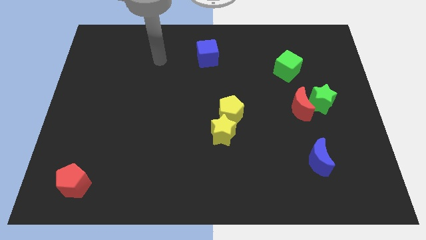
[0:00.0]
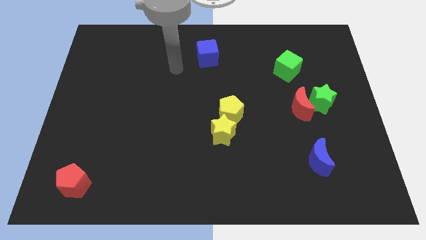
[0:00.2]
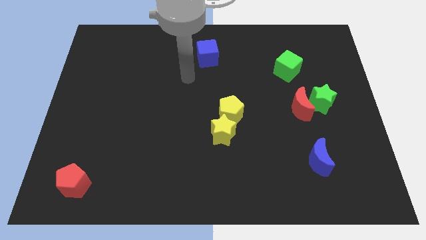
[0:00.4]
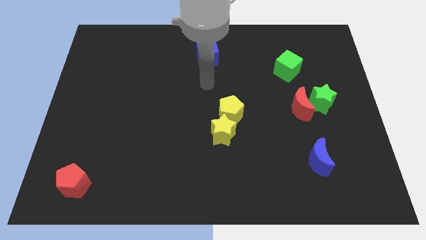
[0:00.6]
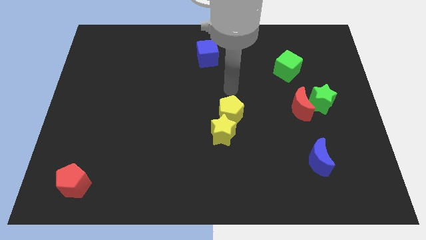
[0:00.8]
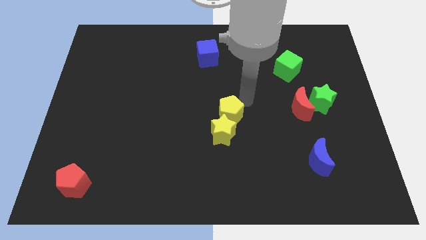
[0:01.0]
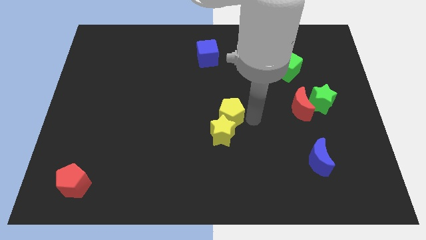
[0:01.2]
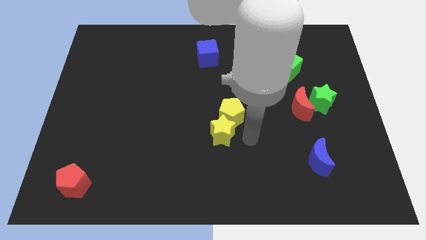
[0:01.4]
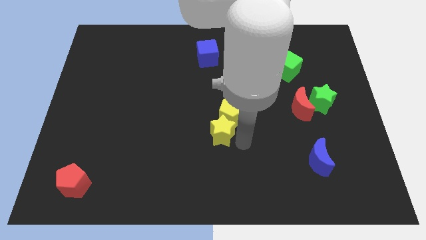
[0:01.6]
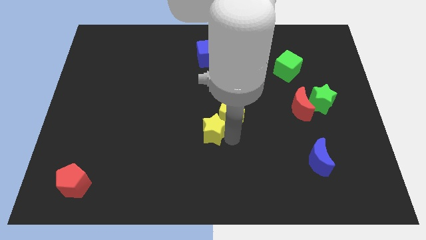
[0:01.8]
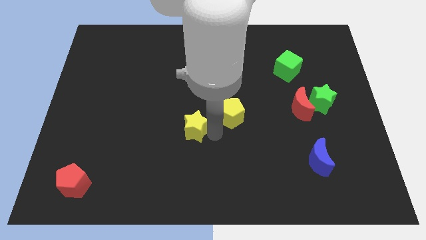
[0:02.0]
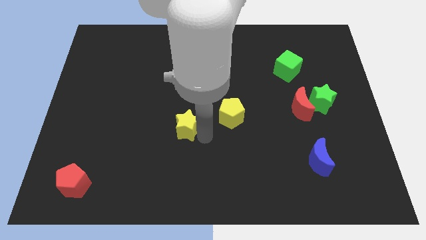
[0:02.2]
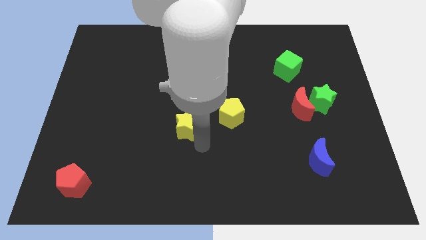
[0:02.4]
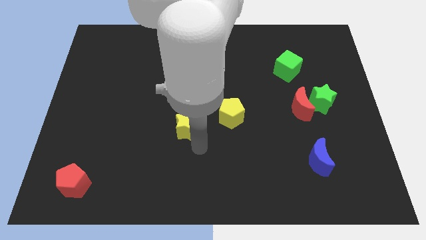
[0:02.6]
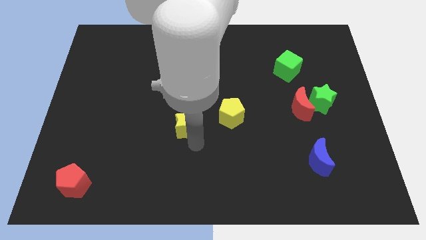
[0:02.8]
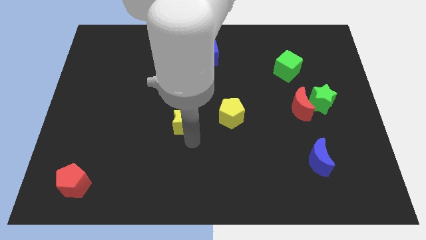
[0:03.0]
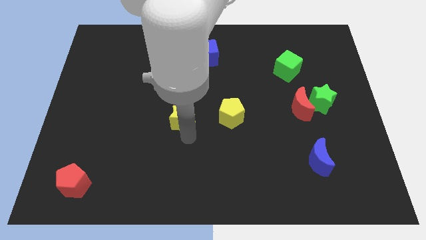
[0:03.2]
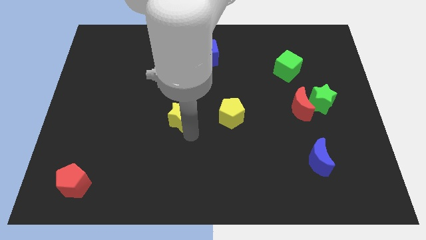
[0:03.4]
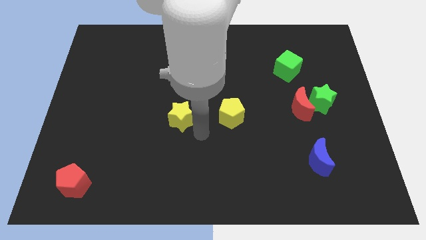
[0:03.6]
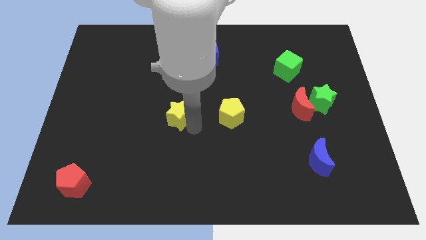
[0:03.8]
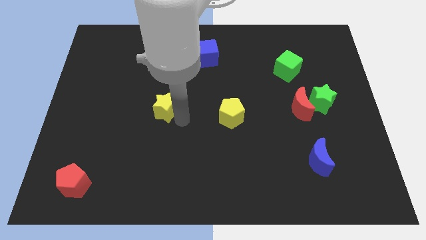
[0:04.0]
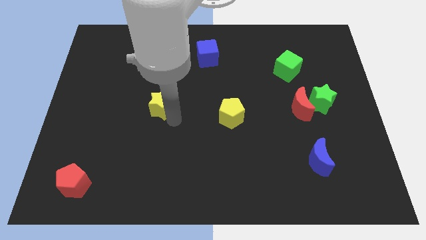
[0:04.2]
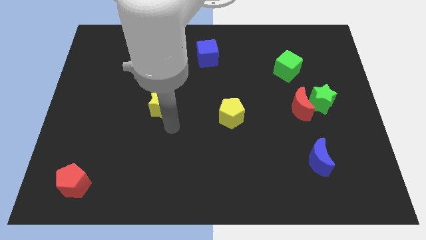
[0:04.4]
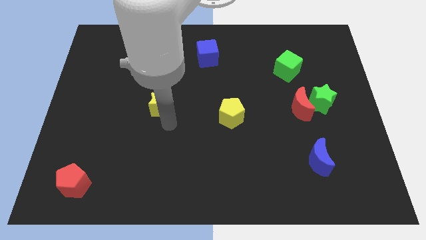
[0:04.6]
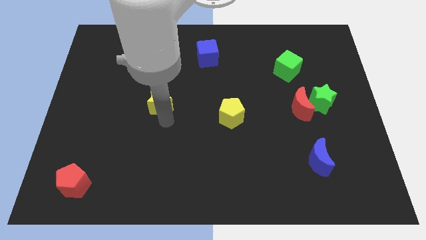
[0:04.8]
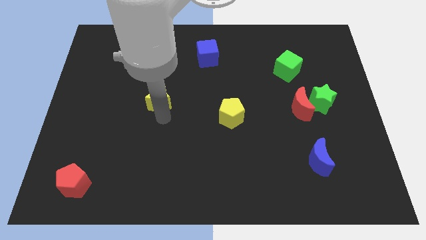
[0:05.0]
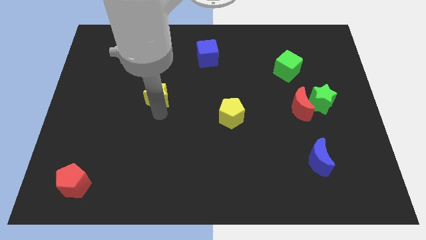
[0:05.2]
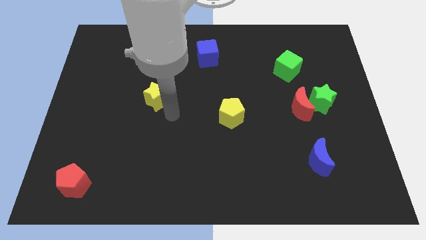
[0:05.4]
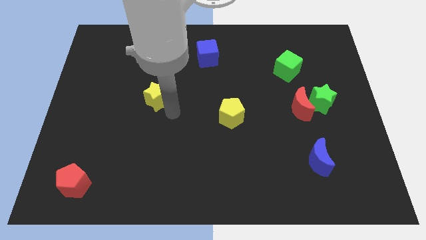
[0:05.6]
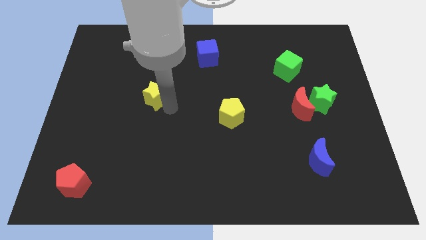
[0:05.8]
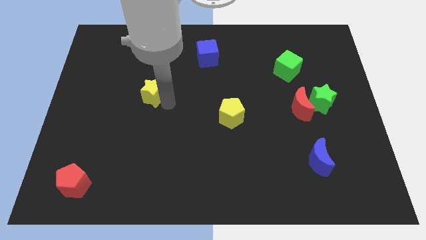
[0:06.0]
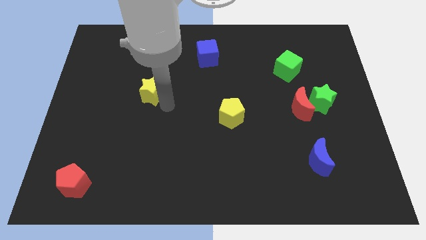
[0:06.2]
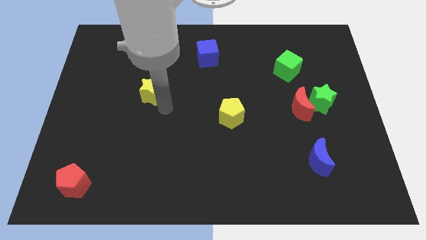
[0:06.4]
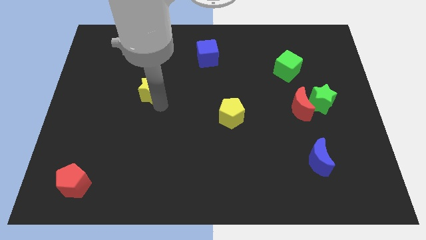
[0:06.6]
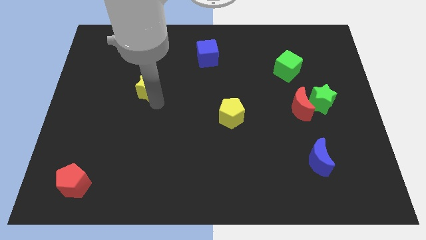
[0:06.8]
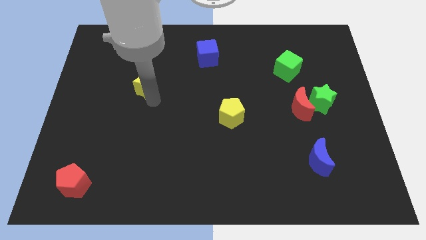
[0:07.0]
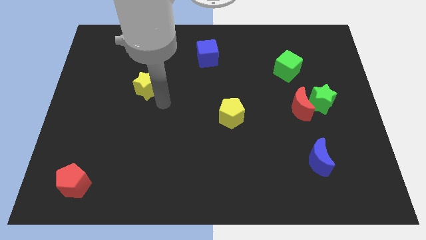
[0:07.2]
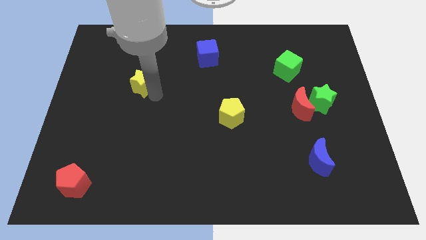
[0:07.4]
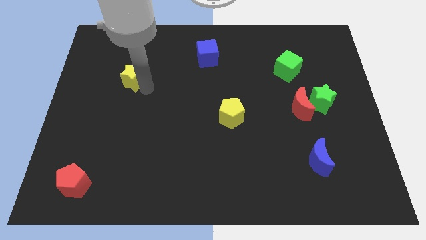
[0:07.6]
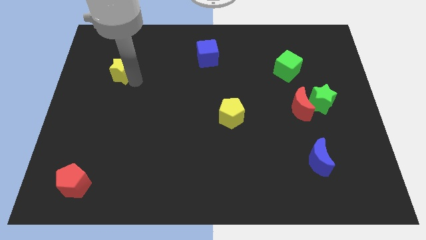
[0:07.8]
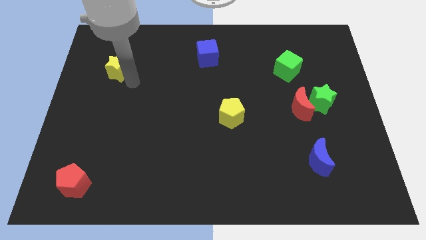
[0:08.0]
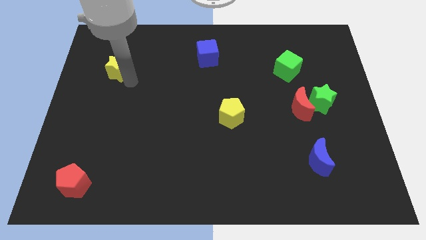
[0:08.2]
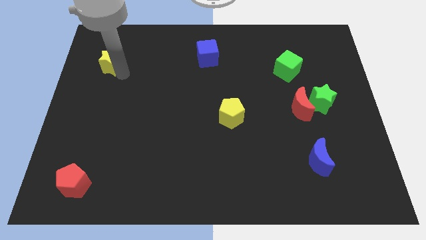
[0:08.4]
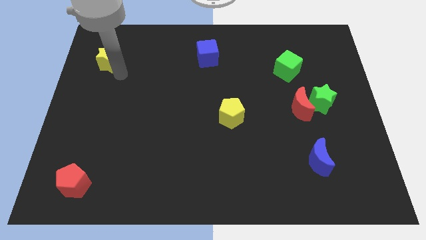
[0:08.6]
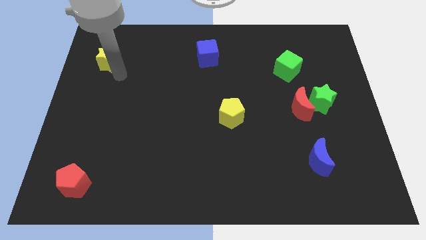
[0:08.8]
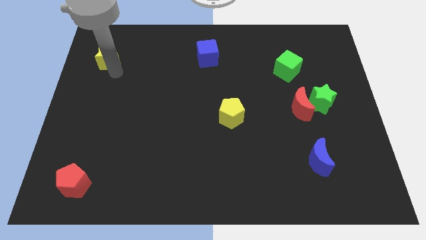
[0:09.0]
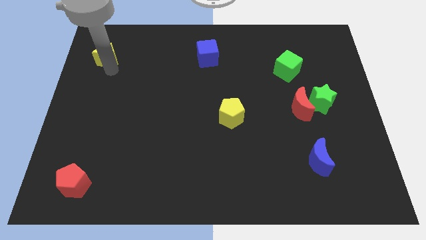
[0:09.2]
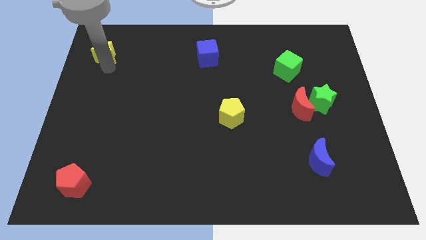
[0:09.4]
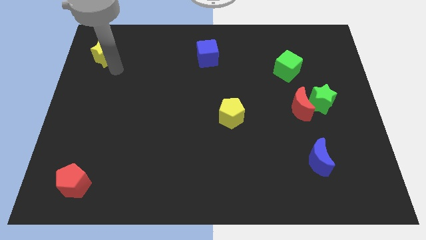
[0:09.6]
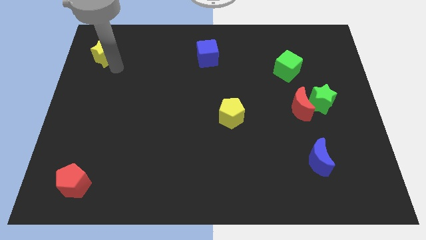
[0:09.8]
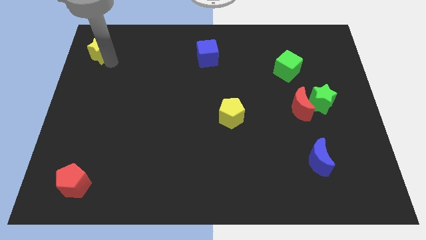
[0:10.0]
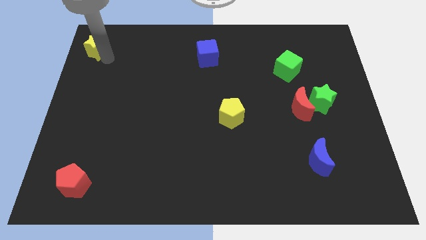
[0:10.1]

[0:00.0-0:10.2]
push the yellow star to the top left corner

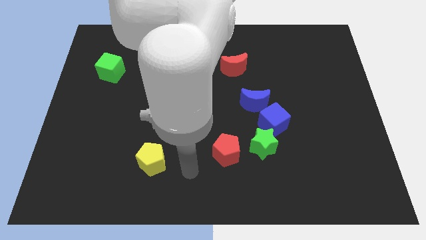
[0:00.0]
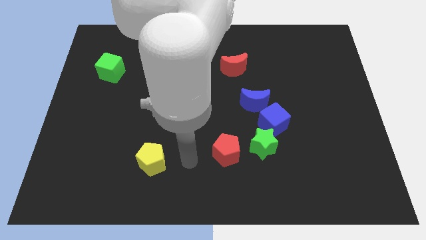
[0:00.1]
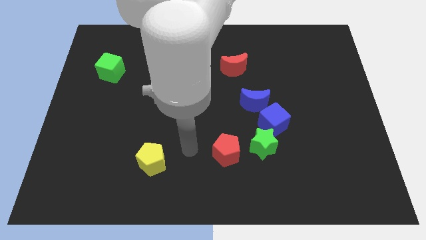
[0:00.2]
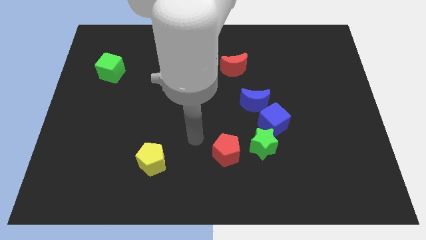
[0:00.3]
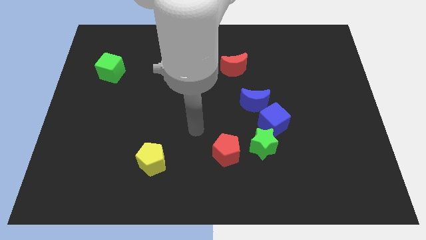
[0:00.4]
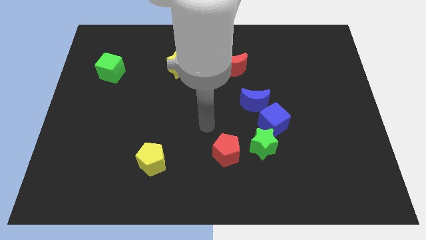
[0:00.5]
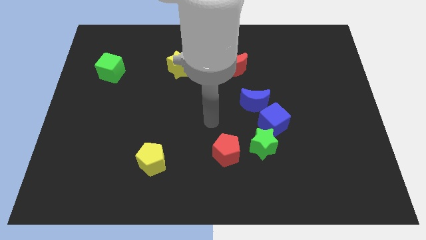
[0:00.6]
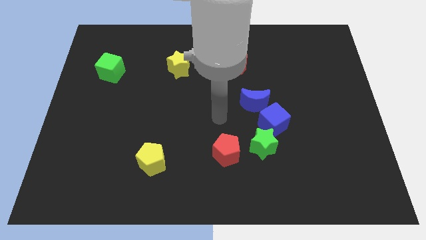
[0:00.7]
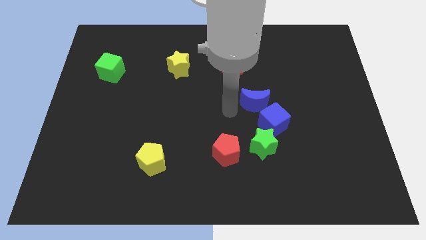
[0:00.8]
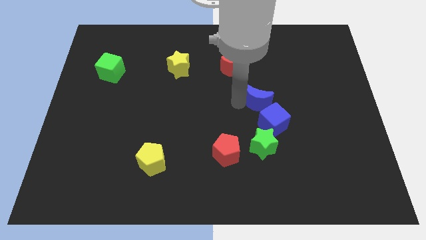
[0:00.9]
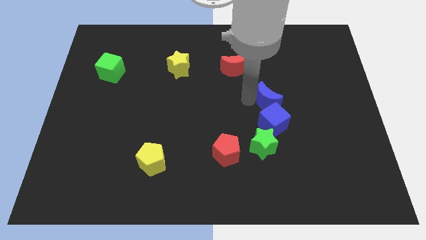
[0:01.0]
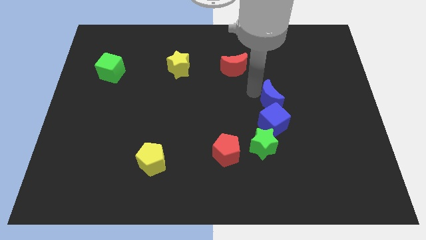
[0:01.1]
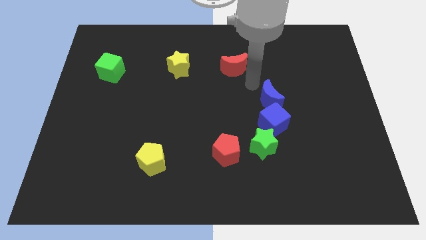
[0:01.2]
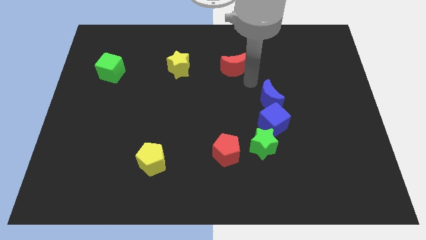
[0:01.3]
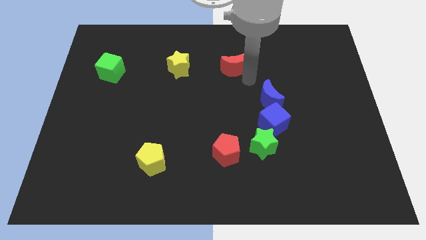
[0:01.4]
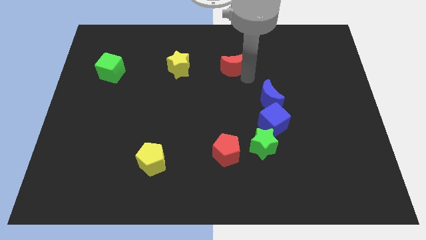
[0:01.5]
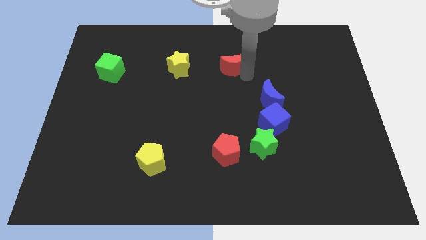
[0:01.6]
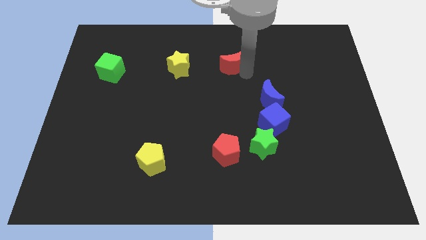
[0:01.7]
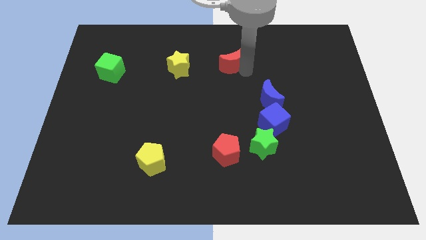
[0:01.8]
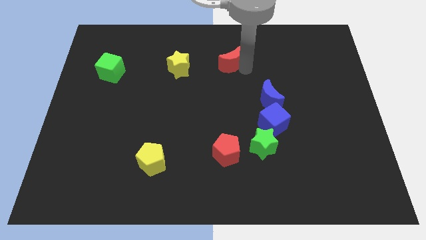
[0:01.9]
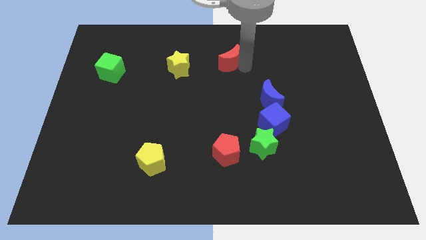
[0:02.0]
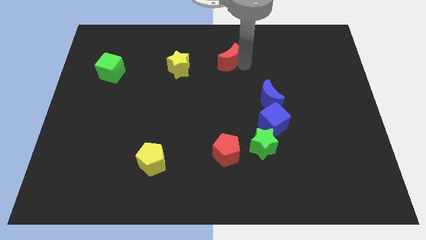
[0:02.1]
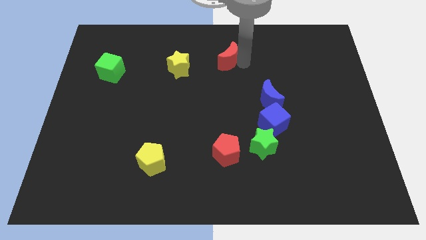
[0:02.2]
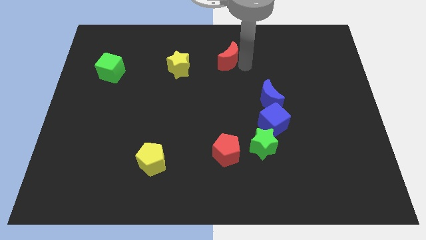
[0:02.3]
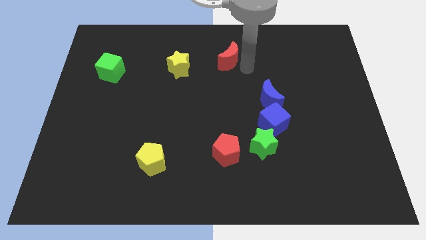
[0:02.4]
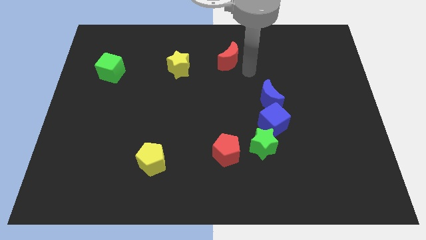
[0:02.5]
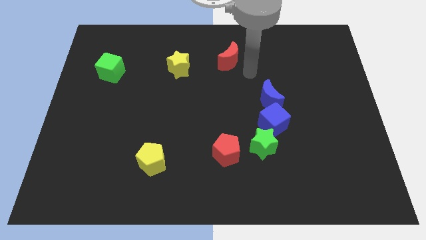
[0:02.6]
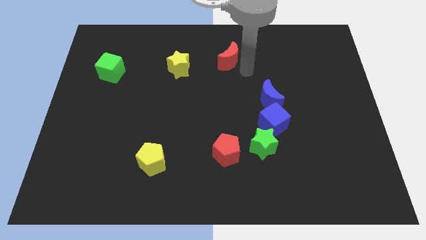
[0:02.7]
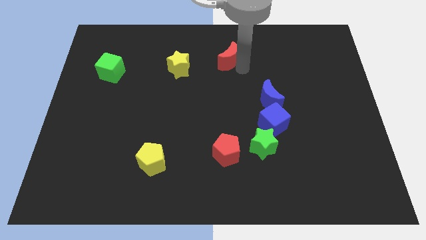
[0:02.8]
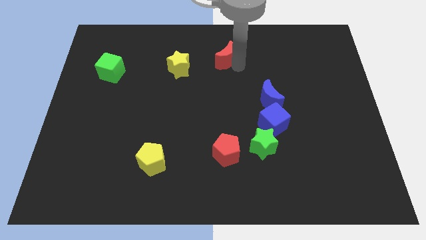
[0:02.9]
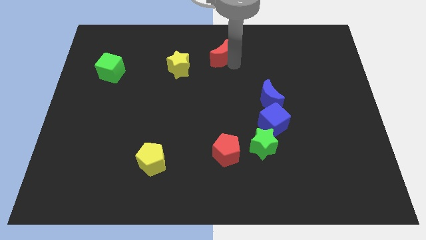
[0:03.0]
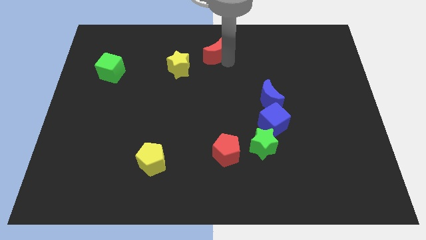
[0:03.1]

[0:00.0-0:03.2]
push the red moon to the top

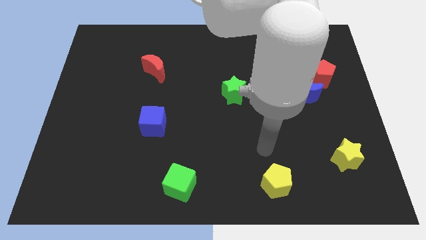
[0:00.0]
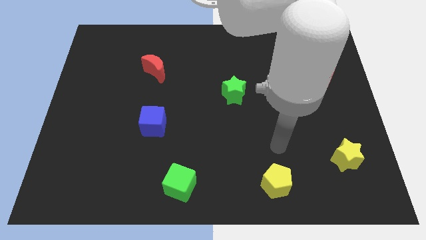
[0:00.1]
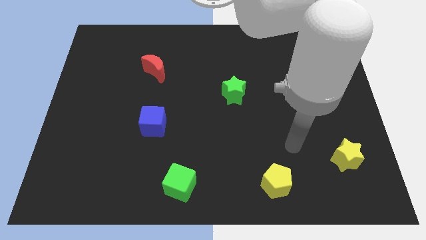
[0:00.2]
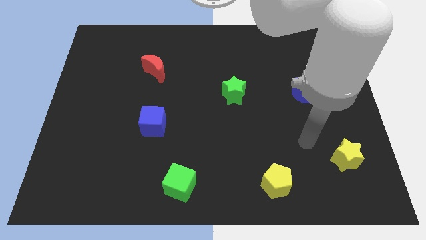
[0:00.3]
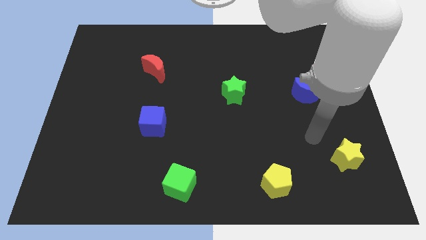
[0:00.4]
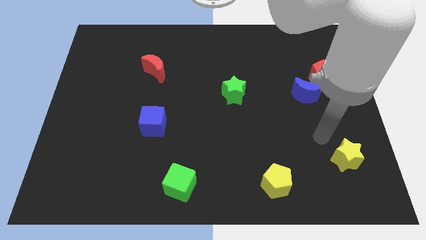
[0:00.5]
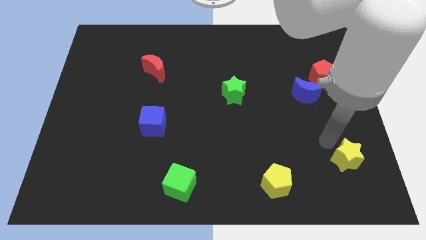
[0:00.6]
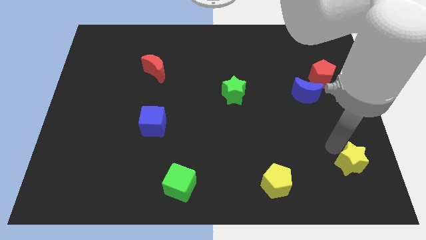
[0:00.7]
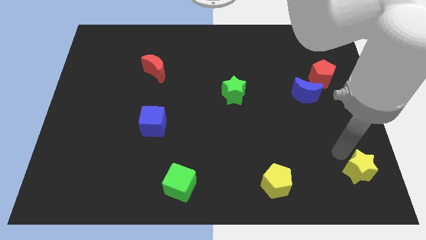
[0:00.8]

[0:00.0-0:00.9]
slide the yellow star to the bottom right corner
